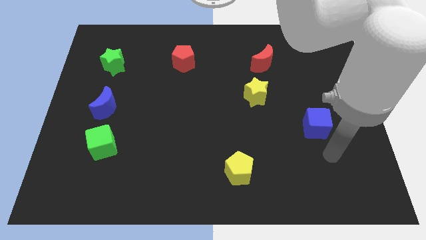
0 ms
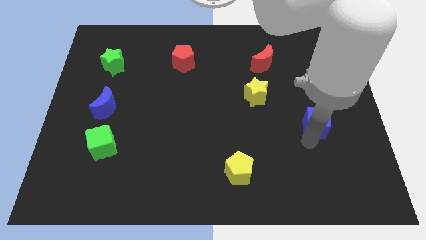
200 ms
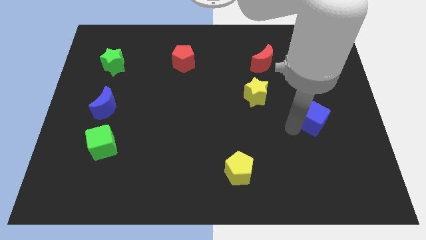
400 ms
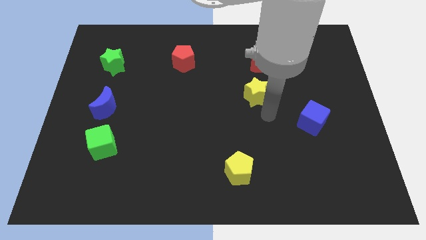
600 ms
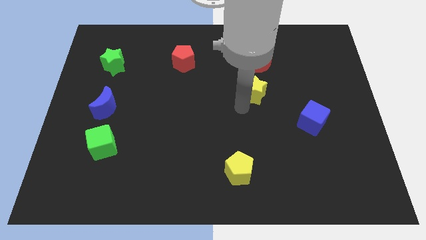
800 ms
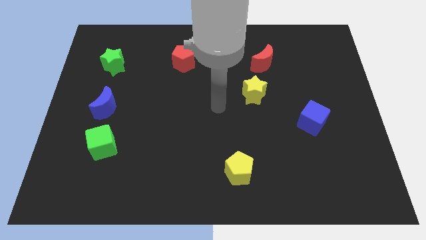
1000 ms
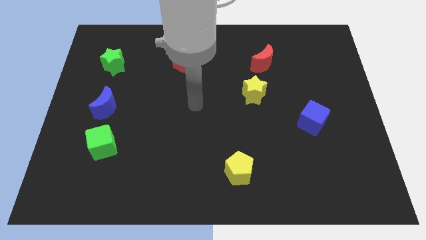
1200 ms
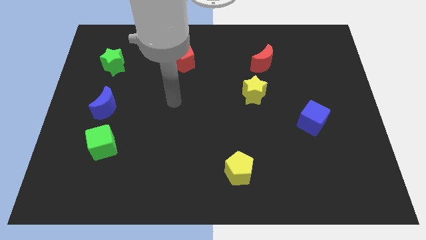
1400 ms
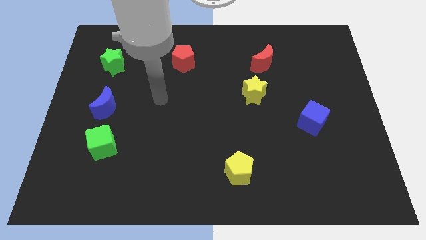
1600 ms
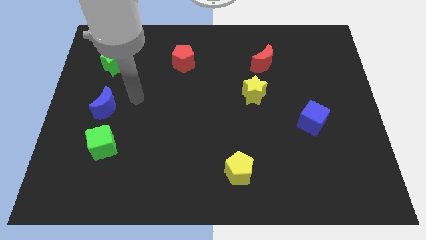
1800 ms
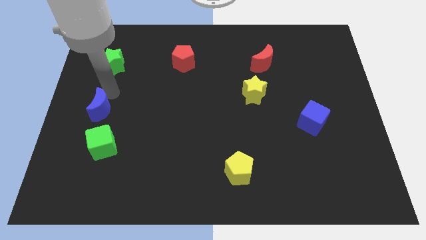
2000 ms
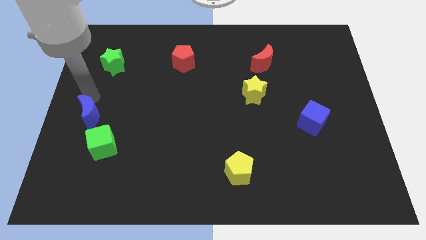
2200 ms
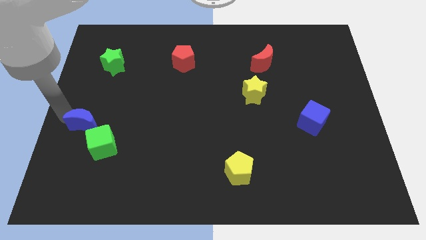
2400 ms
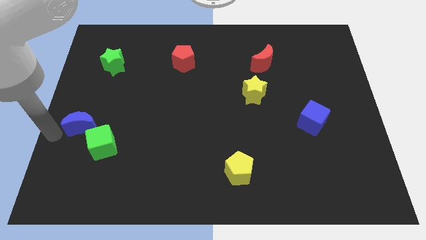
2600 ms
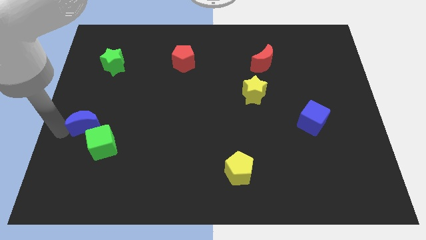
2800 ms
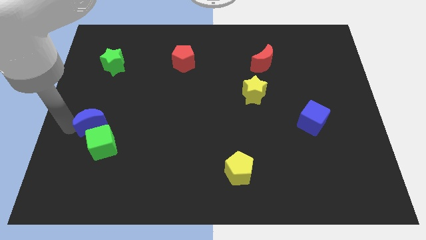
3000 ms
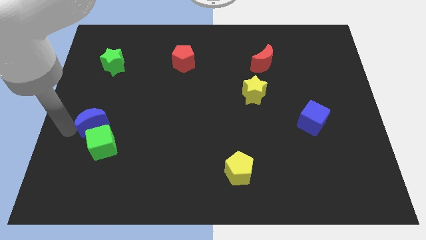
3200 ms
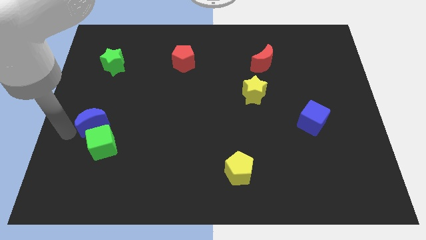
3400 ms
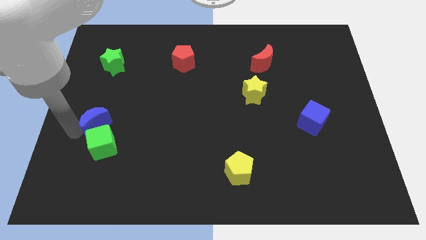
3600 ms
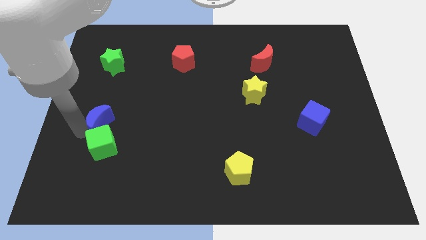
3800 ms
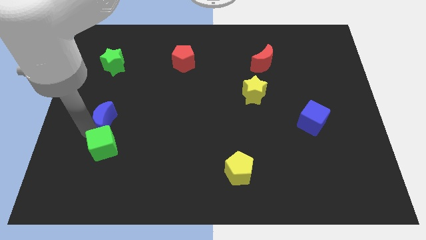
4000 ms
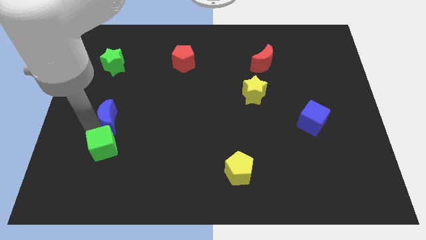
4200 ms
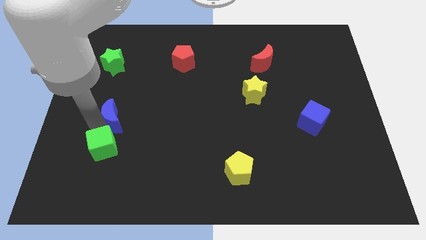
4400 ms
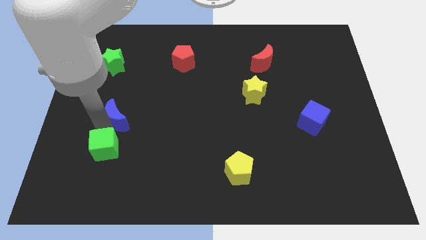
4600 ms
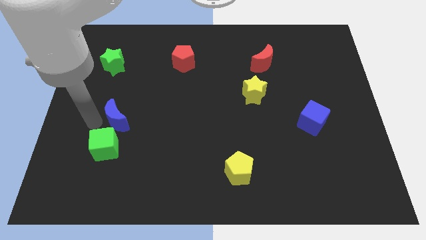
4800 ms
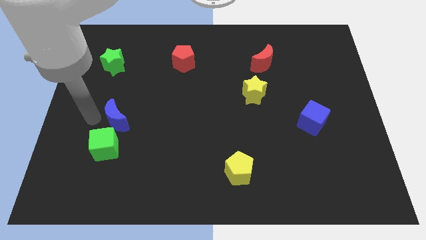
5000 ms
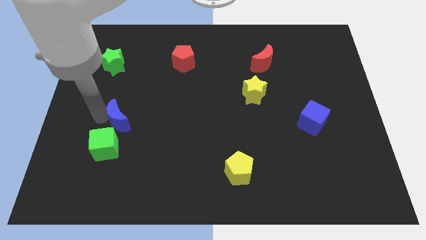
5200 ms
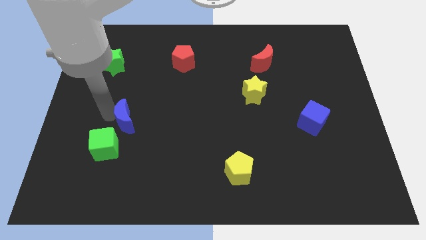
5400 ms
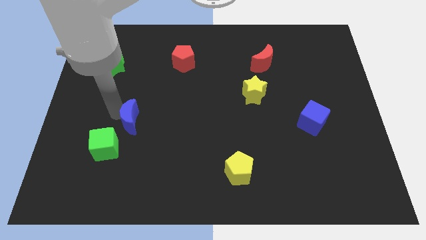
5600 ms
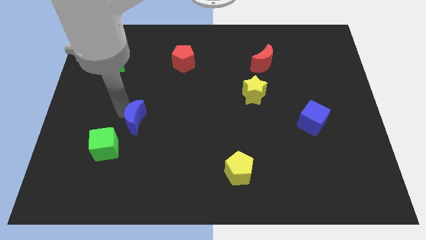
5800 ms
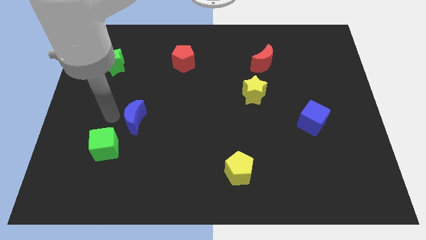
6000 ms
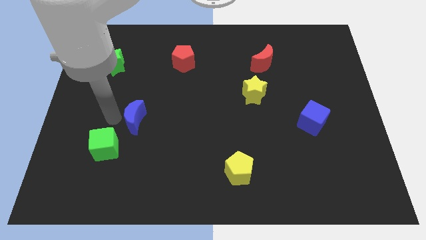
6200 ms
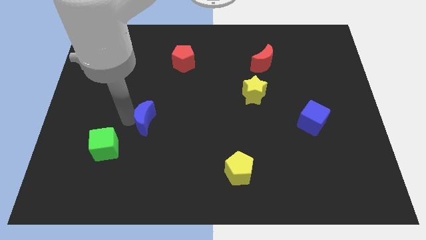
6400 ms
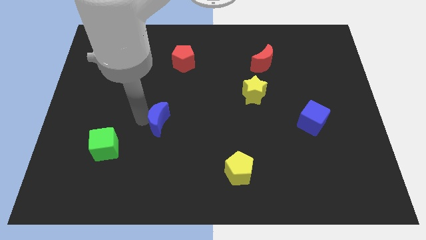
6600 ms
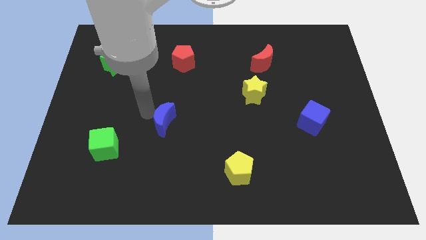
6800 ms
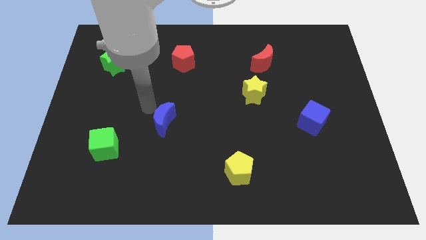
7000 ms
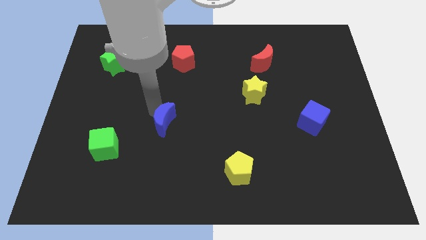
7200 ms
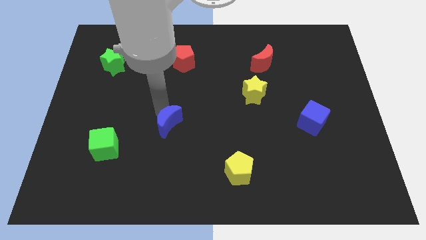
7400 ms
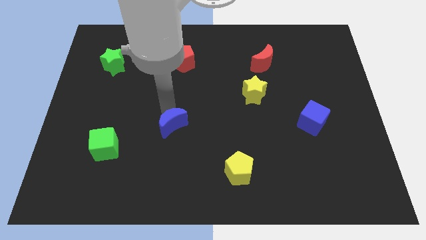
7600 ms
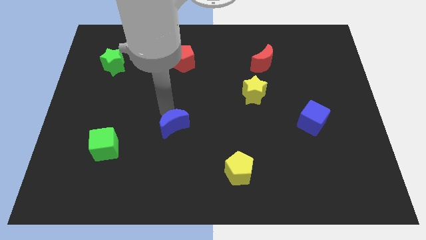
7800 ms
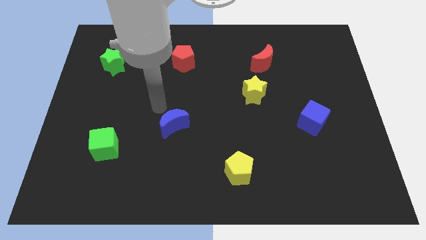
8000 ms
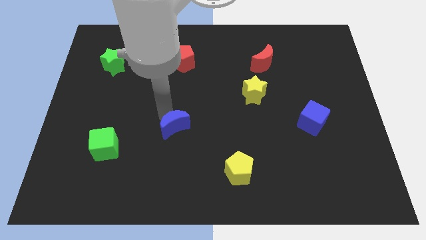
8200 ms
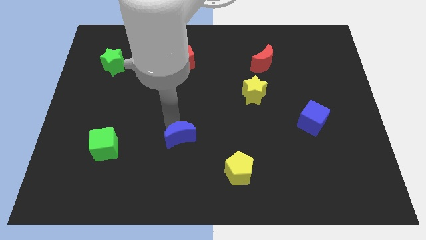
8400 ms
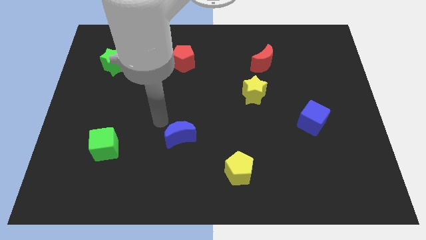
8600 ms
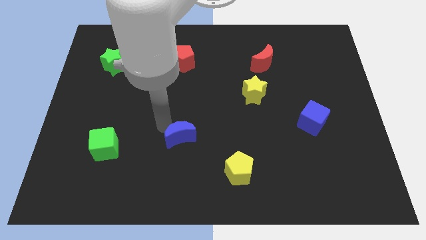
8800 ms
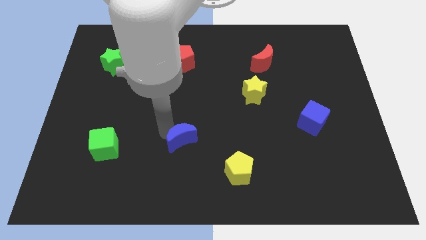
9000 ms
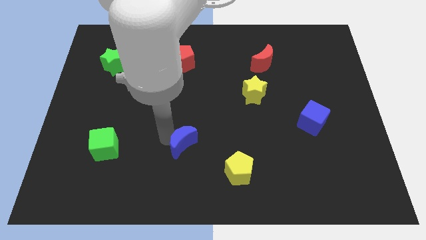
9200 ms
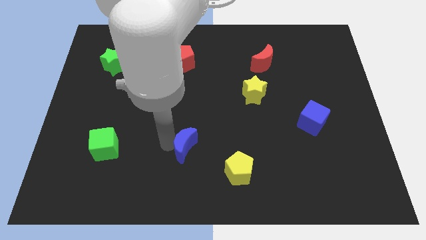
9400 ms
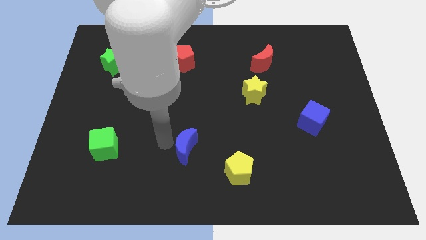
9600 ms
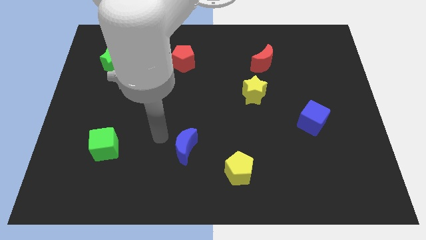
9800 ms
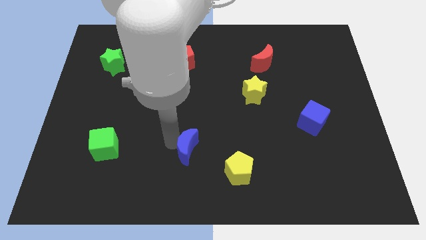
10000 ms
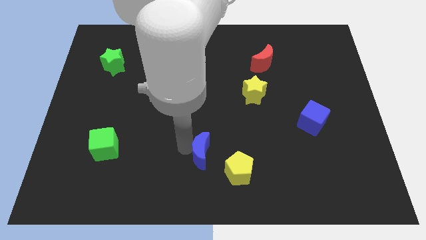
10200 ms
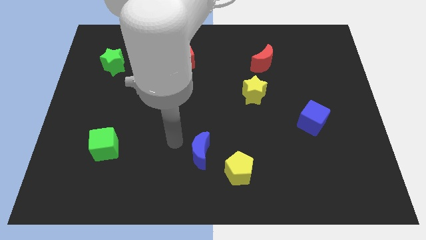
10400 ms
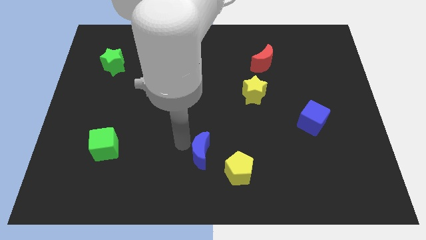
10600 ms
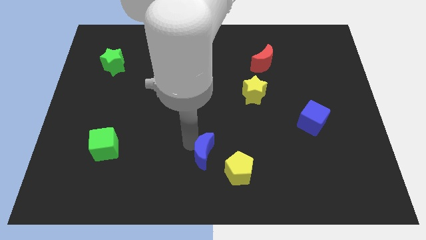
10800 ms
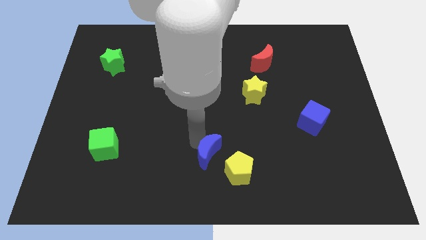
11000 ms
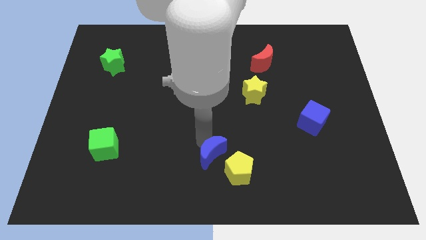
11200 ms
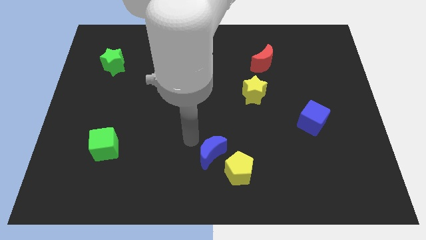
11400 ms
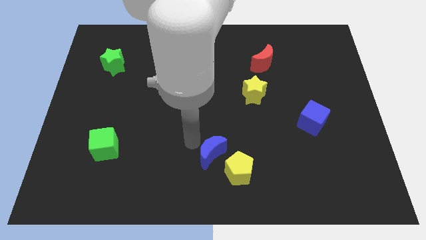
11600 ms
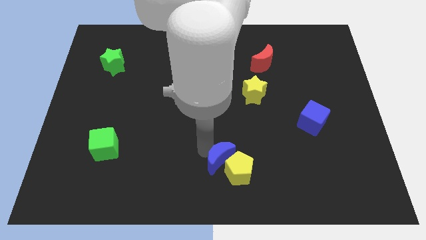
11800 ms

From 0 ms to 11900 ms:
slide the blue moon close to the yellow pentagon

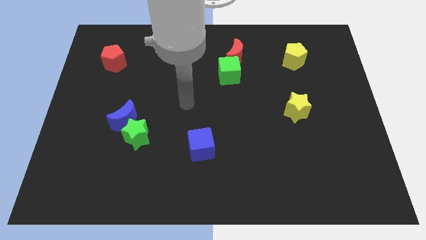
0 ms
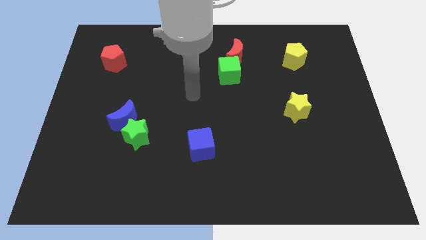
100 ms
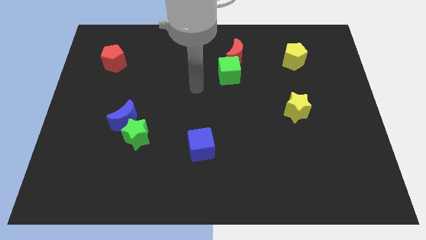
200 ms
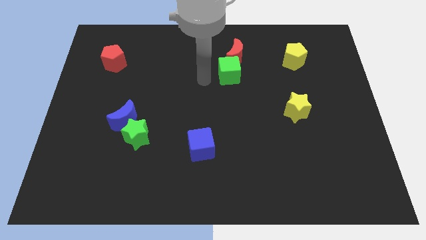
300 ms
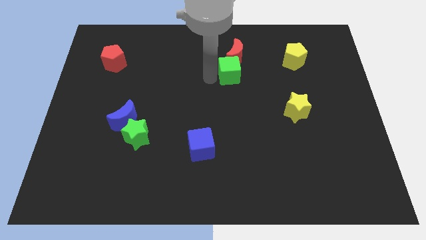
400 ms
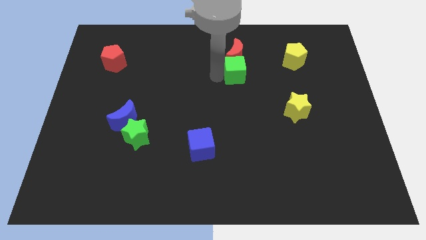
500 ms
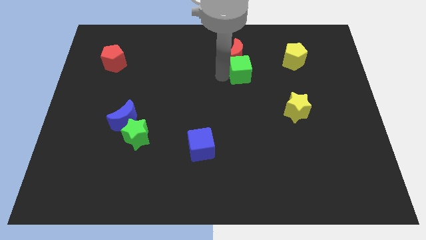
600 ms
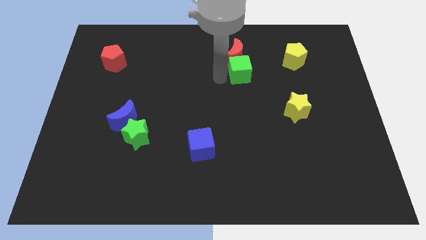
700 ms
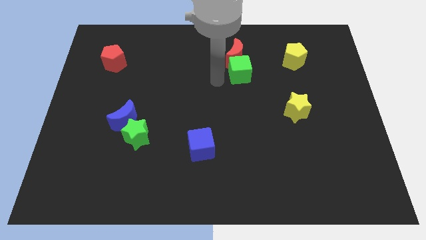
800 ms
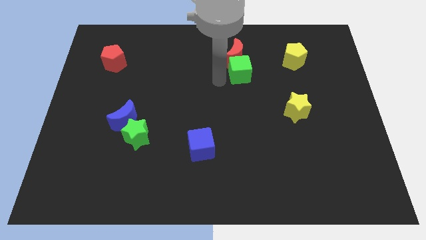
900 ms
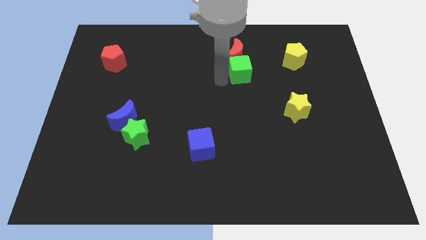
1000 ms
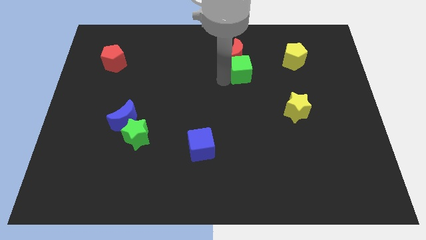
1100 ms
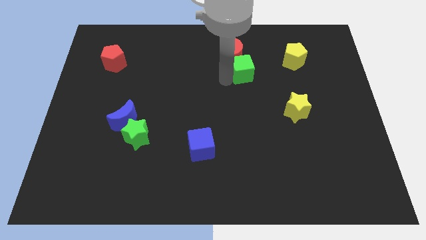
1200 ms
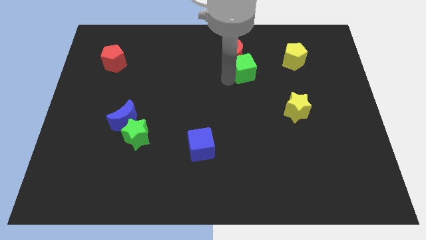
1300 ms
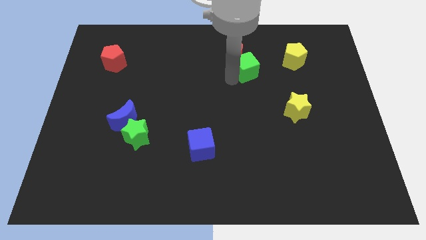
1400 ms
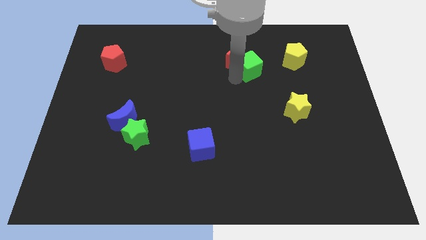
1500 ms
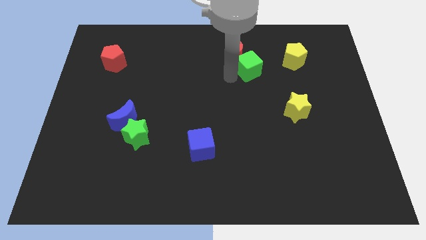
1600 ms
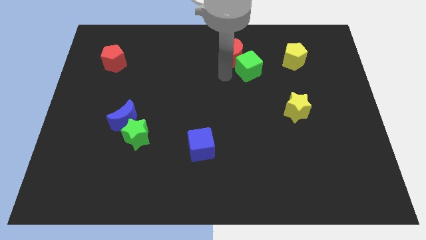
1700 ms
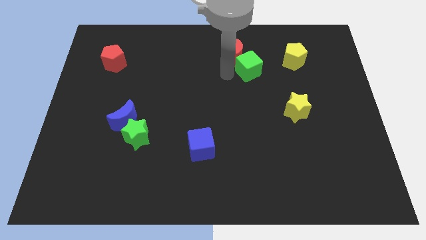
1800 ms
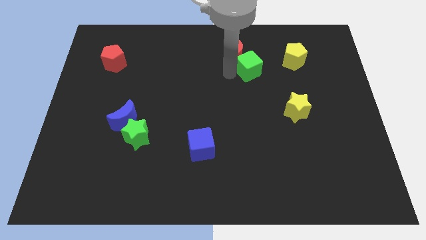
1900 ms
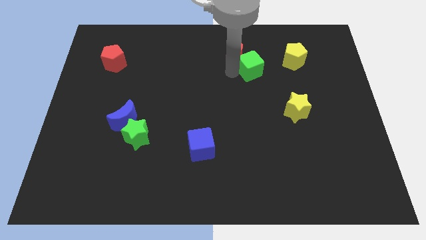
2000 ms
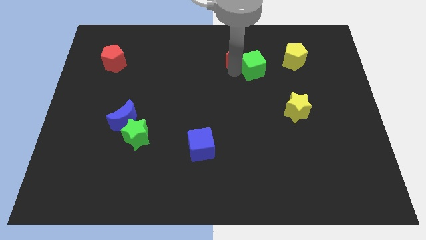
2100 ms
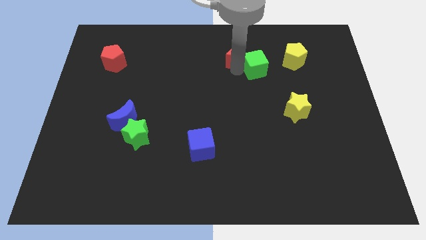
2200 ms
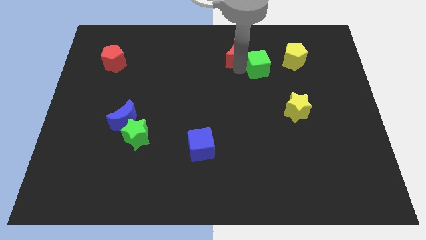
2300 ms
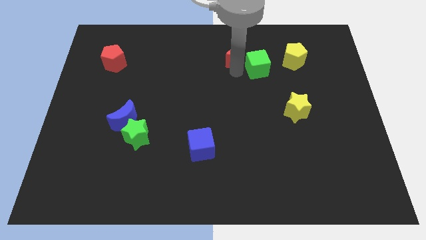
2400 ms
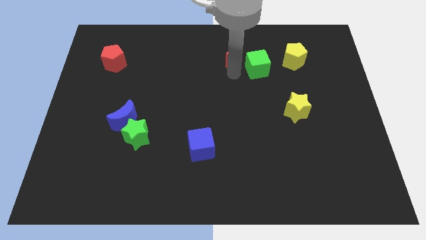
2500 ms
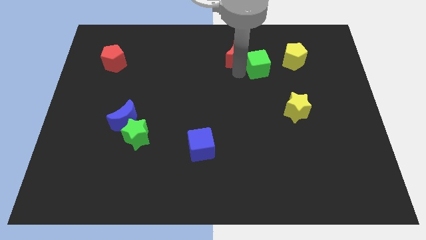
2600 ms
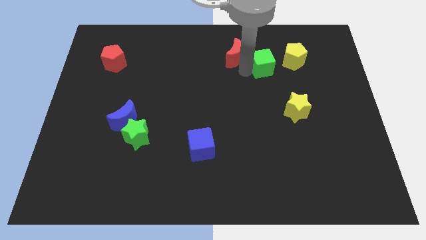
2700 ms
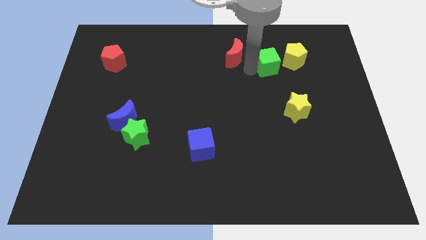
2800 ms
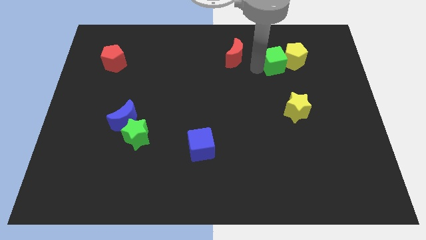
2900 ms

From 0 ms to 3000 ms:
put the green cube to the yellow pentagon
